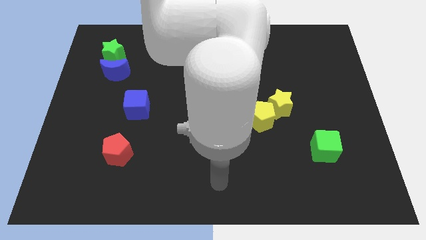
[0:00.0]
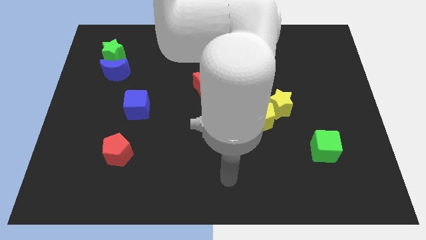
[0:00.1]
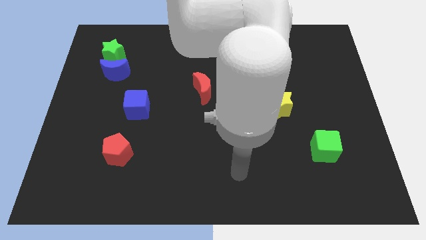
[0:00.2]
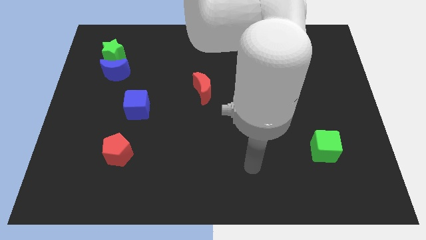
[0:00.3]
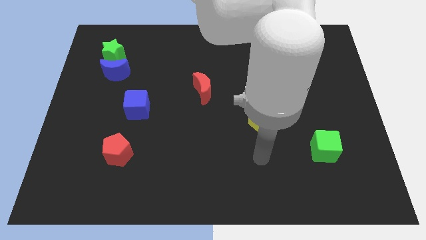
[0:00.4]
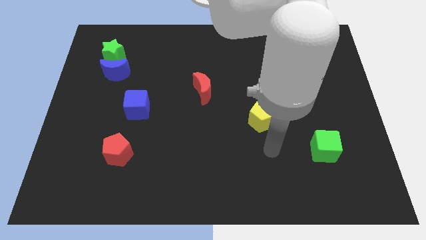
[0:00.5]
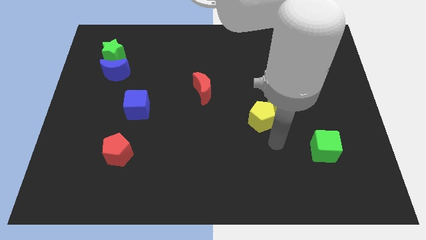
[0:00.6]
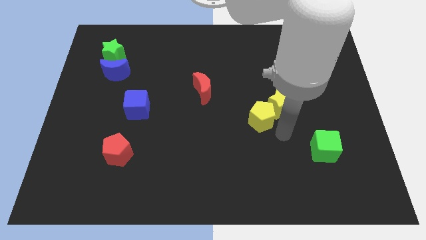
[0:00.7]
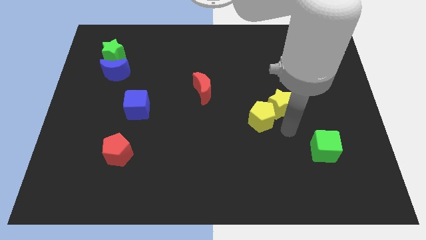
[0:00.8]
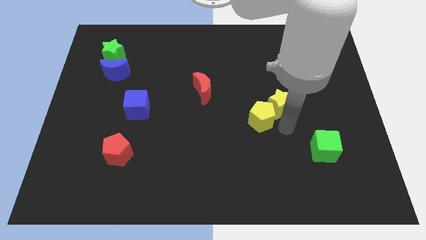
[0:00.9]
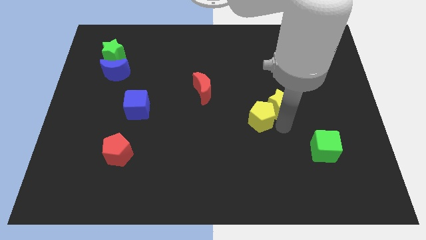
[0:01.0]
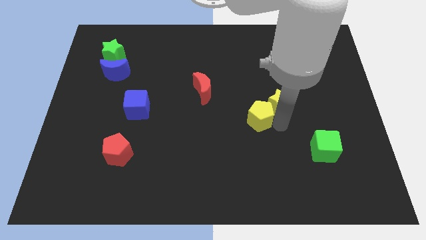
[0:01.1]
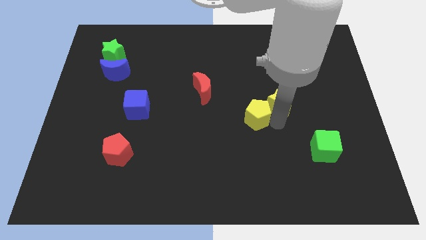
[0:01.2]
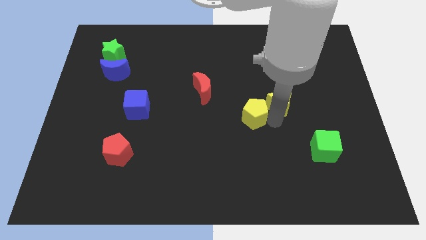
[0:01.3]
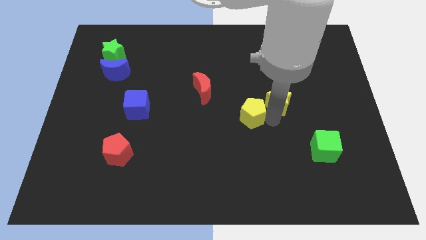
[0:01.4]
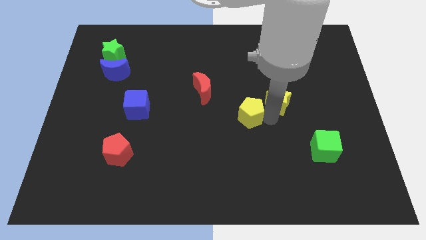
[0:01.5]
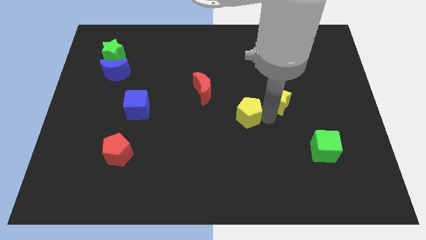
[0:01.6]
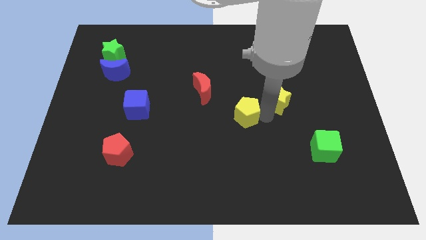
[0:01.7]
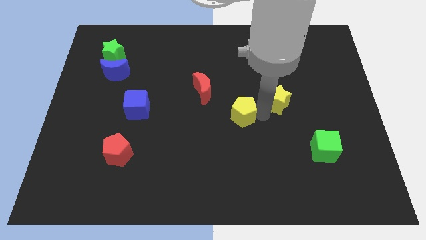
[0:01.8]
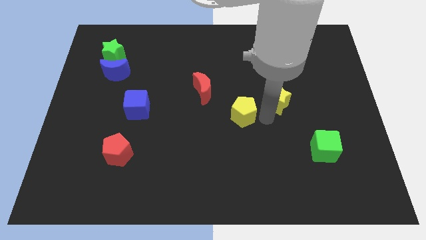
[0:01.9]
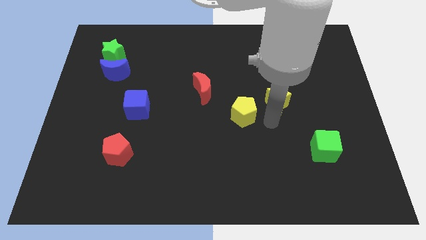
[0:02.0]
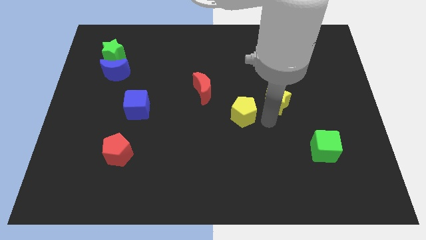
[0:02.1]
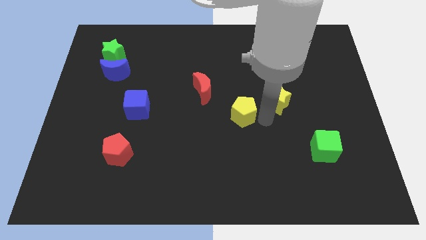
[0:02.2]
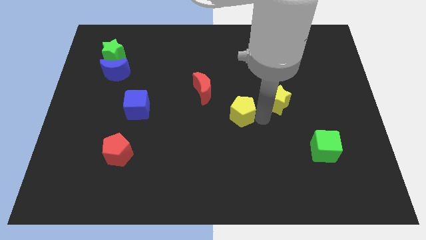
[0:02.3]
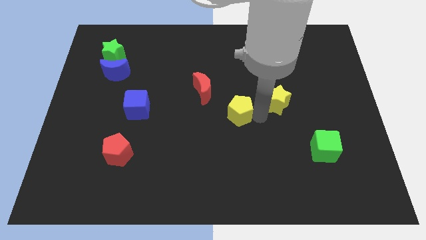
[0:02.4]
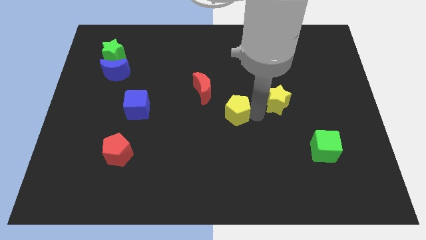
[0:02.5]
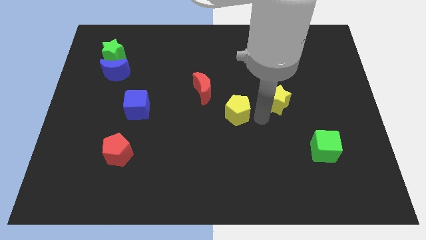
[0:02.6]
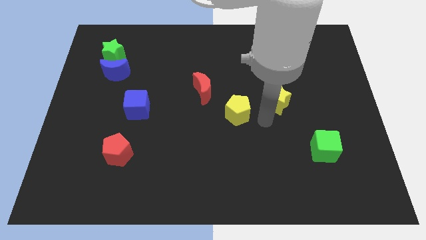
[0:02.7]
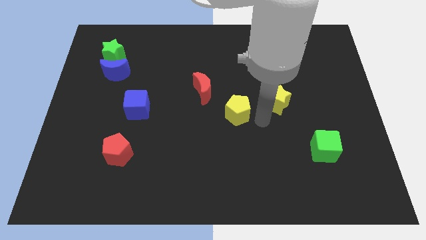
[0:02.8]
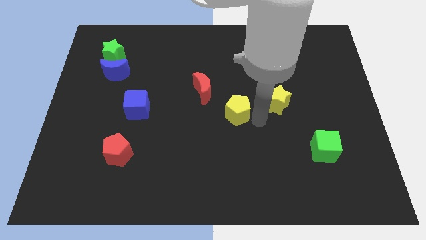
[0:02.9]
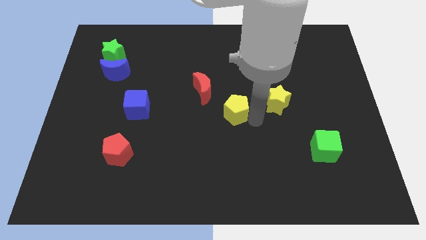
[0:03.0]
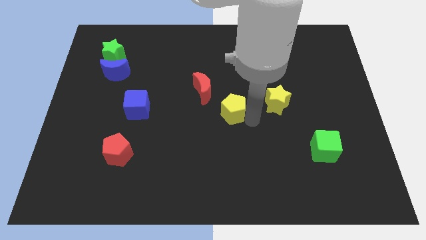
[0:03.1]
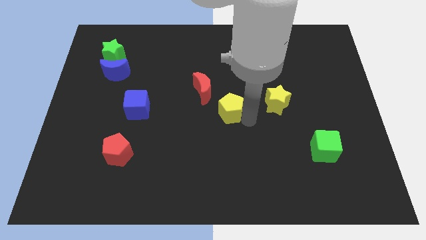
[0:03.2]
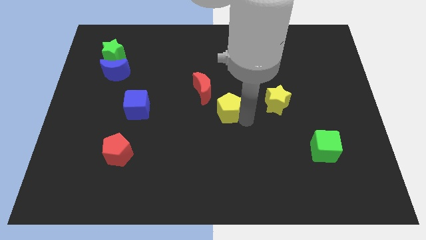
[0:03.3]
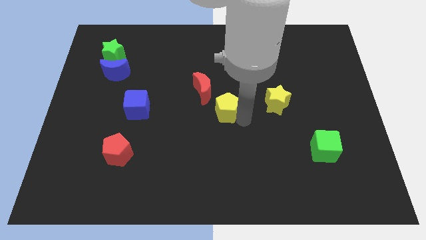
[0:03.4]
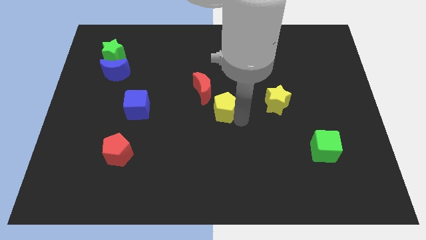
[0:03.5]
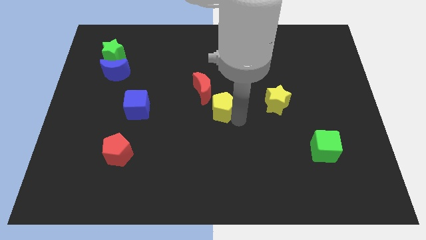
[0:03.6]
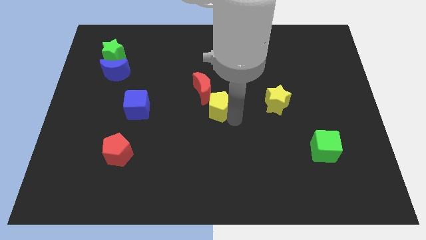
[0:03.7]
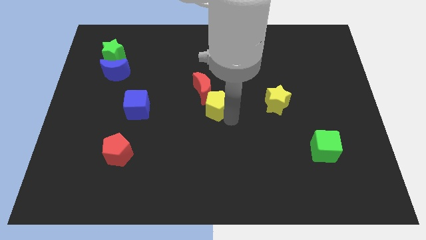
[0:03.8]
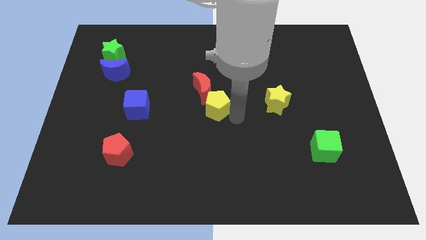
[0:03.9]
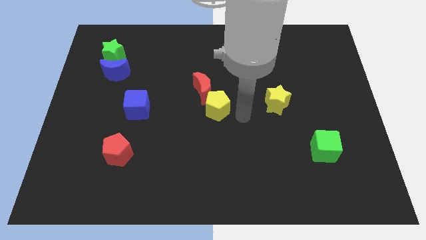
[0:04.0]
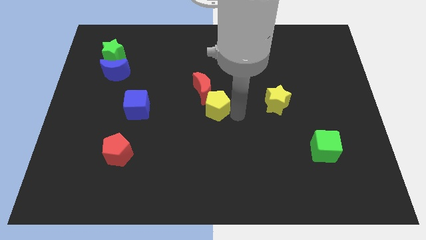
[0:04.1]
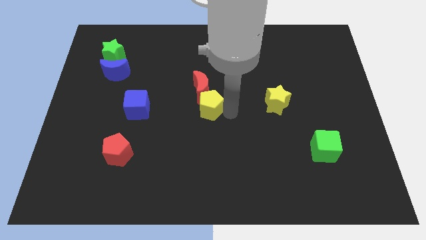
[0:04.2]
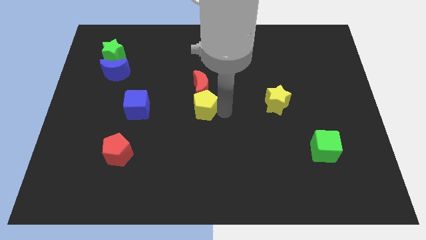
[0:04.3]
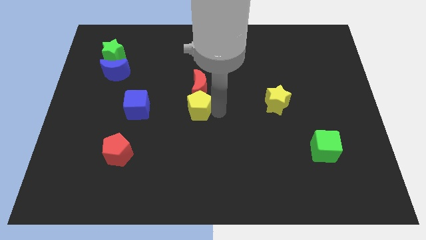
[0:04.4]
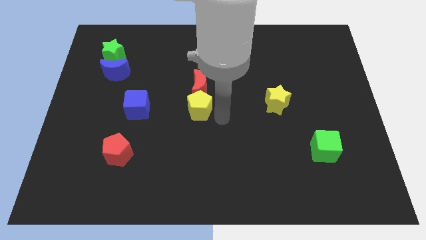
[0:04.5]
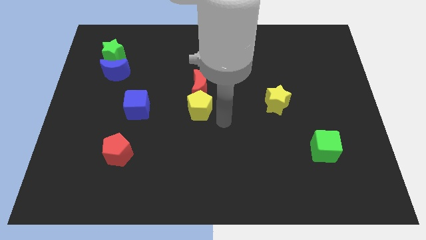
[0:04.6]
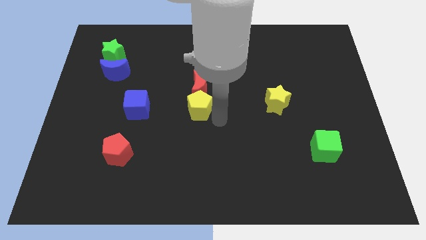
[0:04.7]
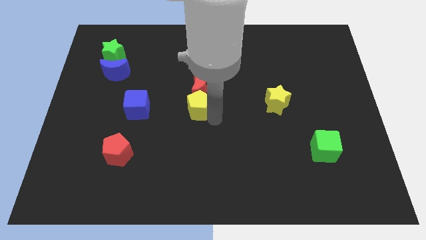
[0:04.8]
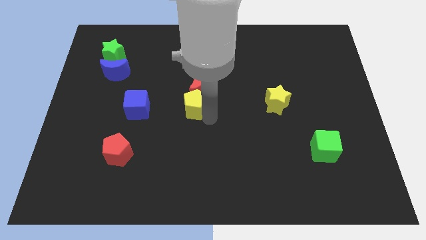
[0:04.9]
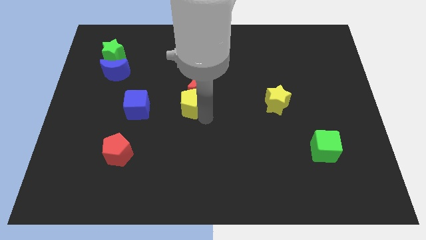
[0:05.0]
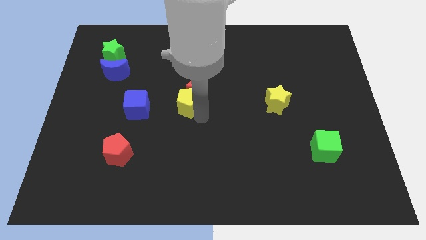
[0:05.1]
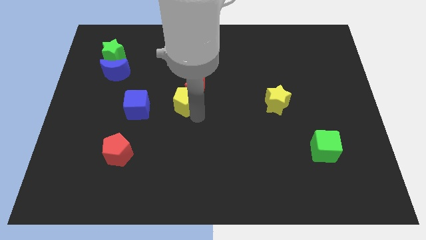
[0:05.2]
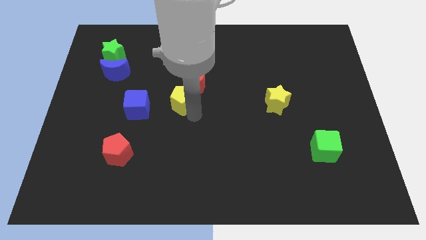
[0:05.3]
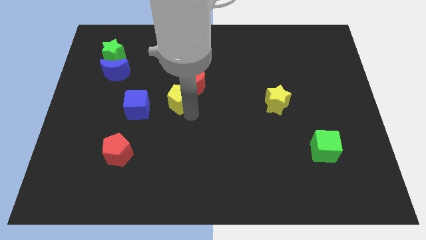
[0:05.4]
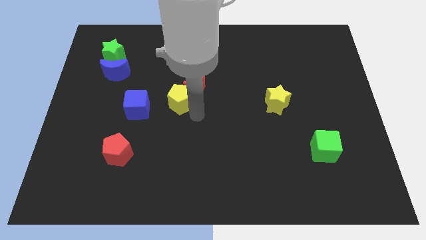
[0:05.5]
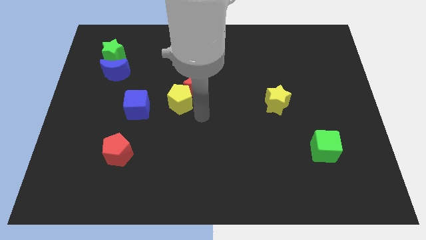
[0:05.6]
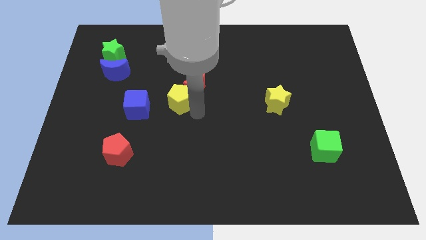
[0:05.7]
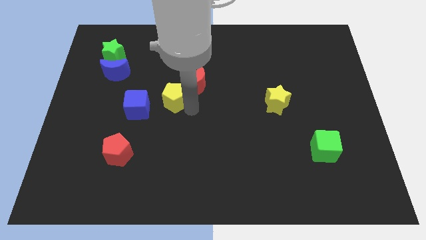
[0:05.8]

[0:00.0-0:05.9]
push the yellow pentagon diagonally up and to the right of the blue cube

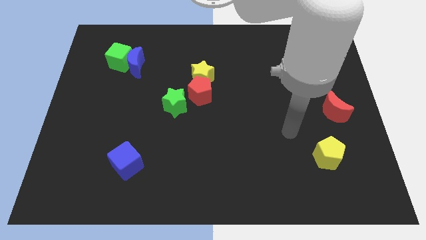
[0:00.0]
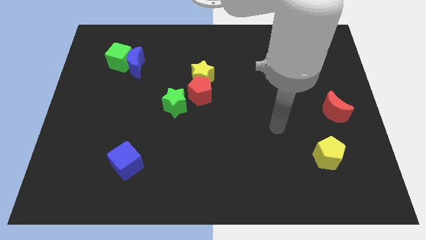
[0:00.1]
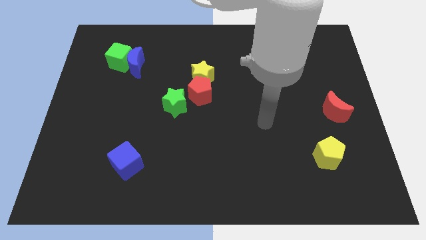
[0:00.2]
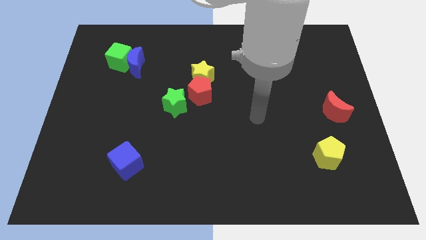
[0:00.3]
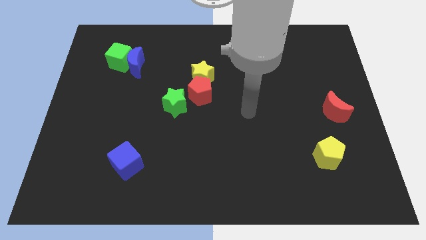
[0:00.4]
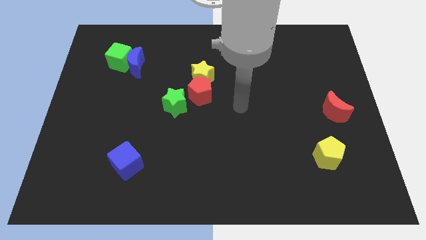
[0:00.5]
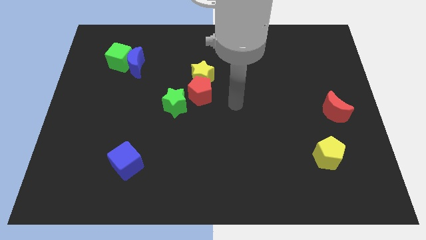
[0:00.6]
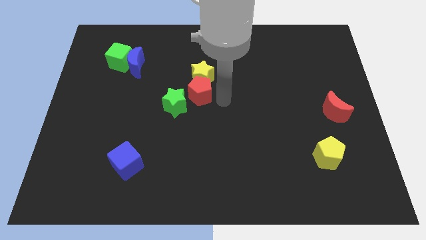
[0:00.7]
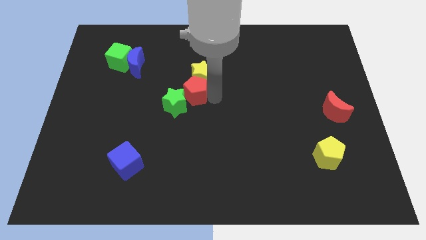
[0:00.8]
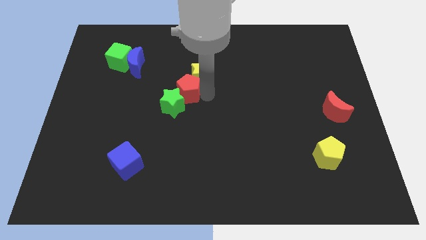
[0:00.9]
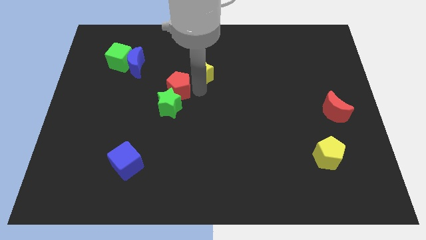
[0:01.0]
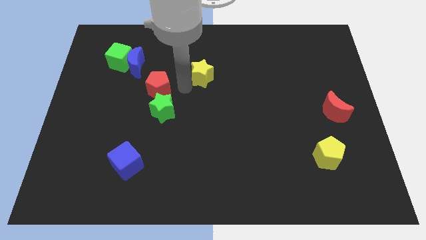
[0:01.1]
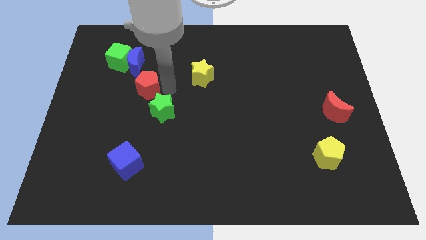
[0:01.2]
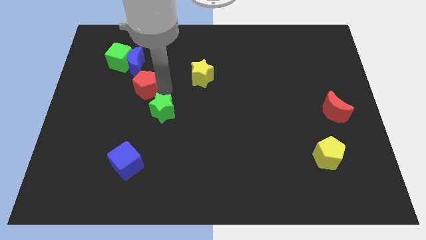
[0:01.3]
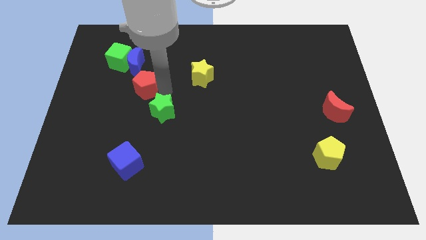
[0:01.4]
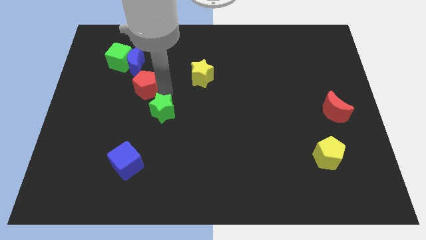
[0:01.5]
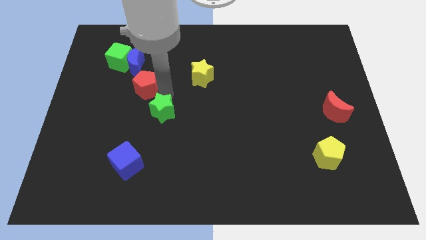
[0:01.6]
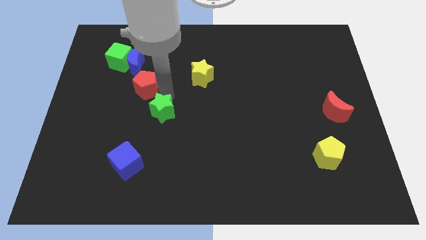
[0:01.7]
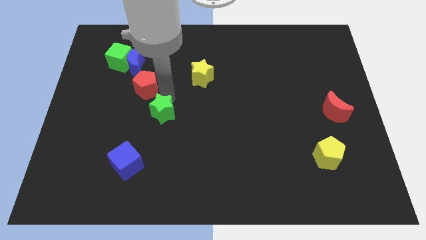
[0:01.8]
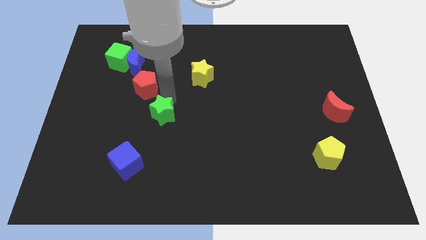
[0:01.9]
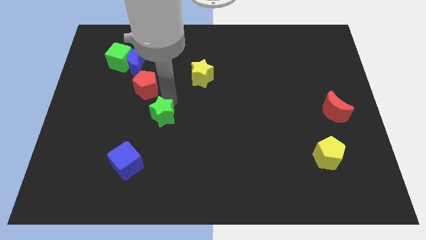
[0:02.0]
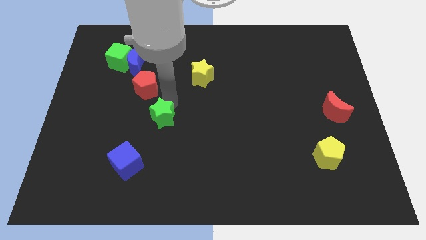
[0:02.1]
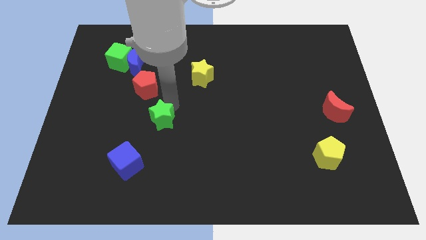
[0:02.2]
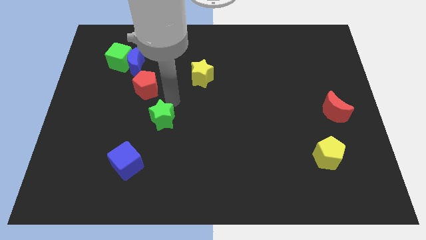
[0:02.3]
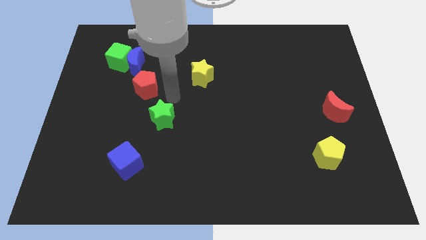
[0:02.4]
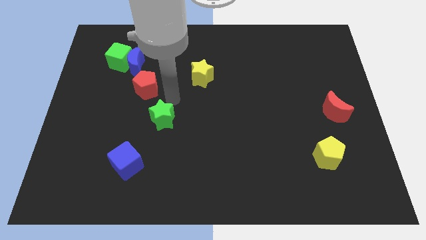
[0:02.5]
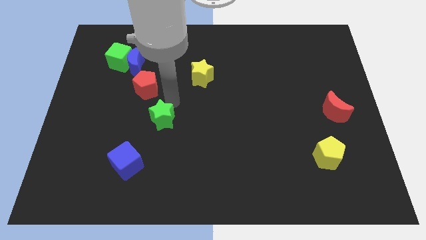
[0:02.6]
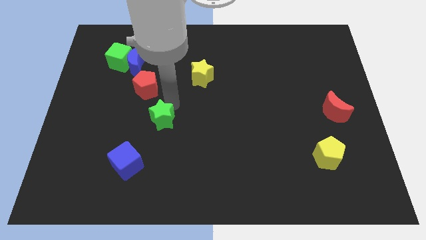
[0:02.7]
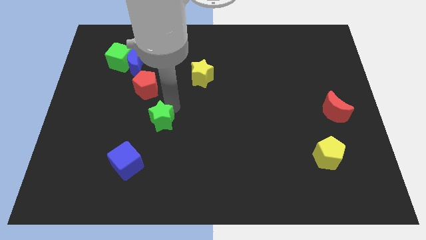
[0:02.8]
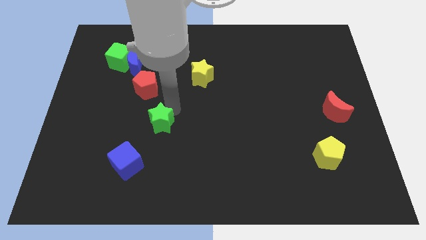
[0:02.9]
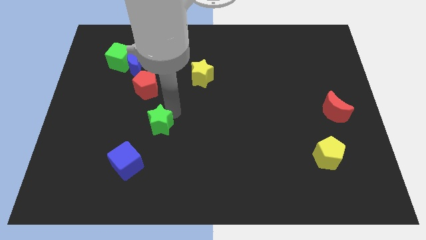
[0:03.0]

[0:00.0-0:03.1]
slide the green star to the top right of the blue cube
